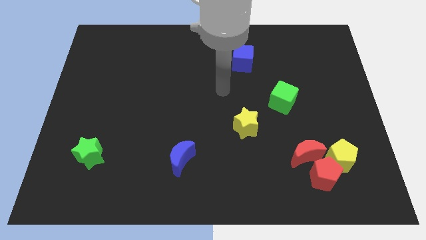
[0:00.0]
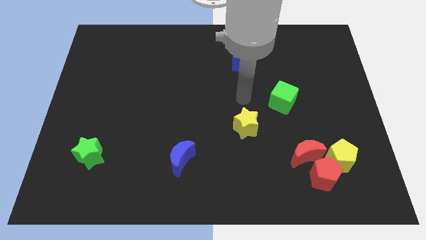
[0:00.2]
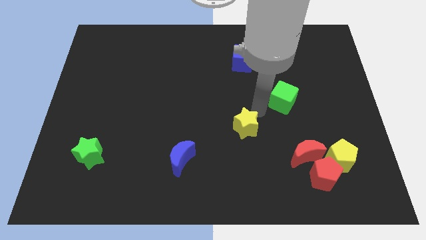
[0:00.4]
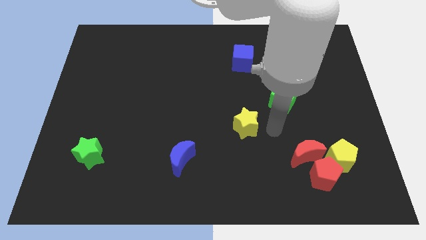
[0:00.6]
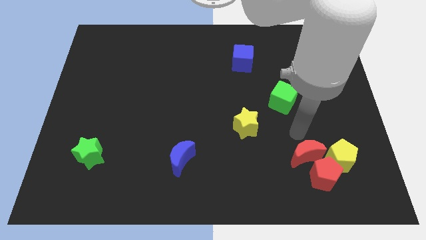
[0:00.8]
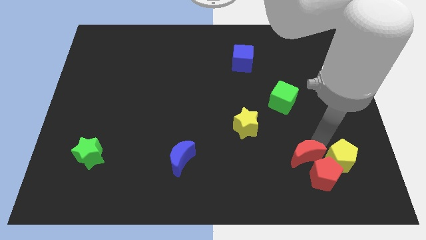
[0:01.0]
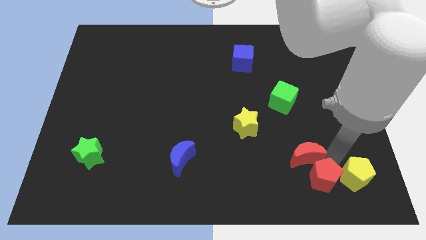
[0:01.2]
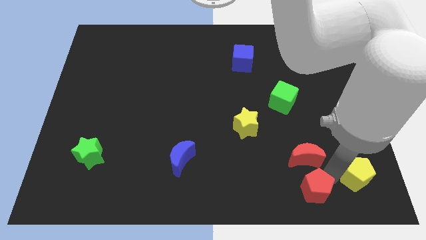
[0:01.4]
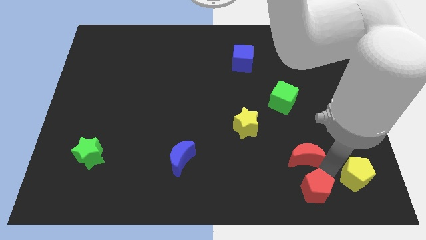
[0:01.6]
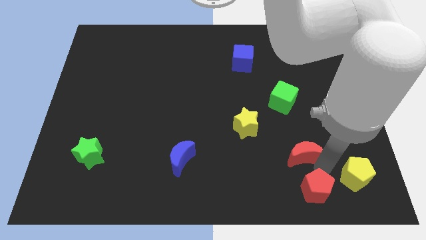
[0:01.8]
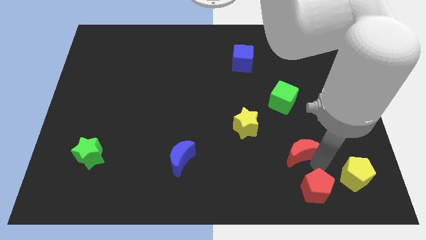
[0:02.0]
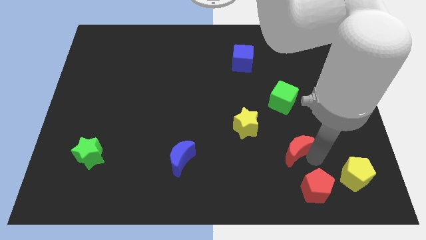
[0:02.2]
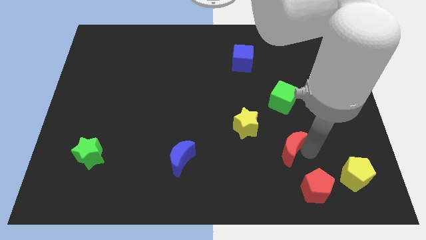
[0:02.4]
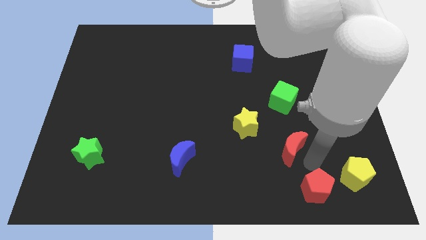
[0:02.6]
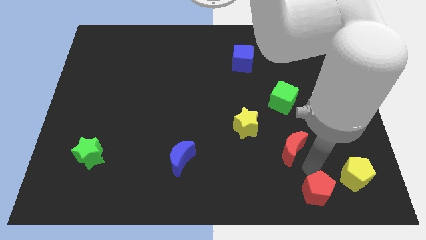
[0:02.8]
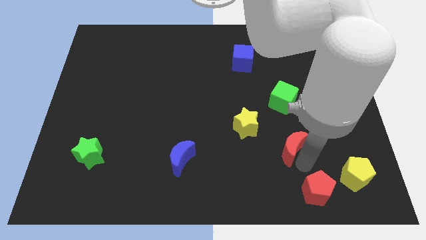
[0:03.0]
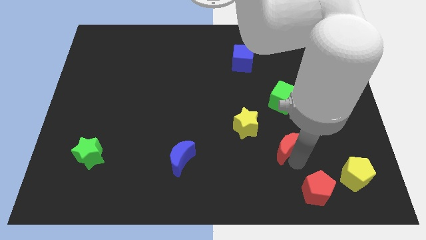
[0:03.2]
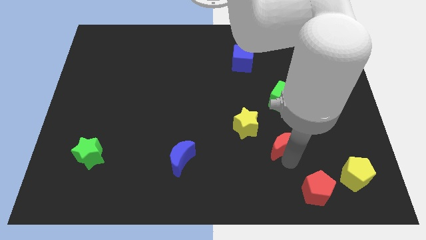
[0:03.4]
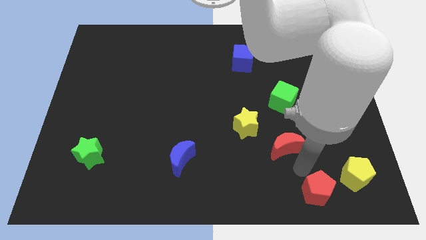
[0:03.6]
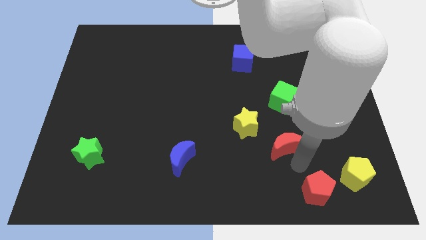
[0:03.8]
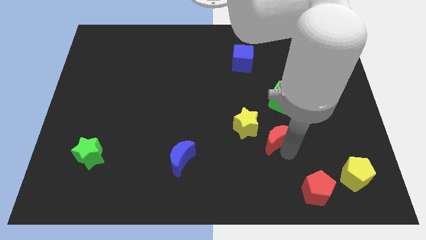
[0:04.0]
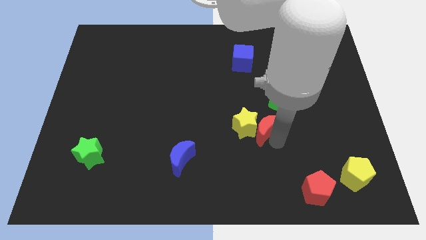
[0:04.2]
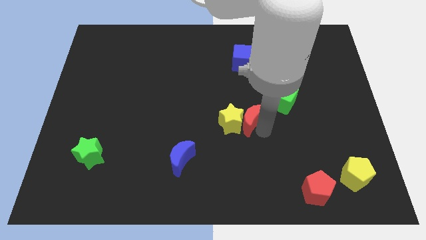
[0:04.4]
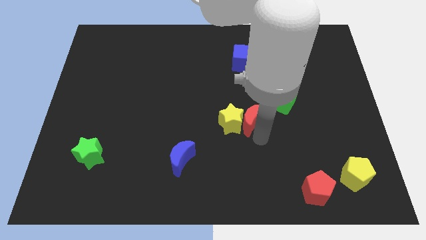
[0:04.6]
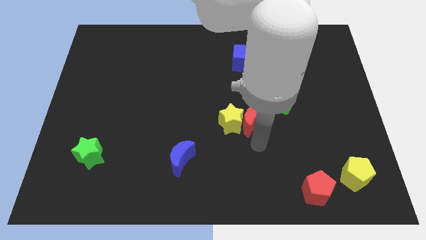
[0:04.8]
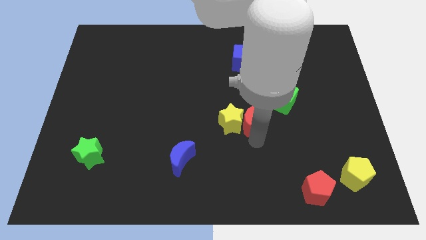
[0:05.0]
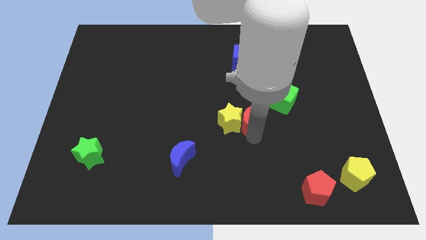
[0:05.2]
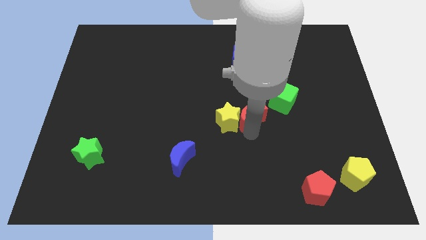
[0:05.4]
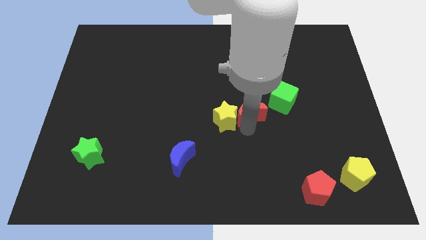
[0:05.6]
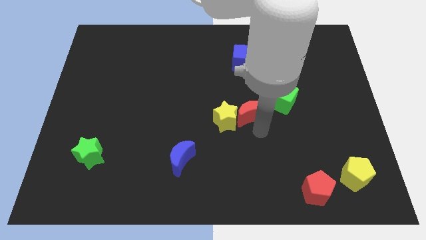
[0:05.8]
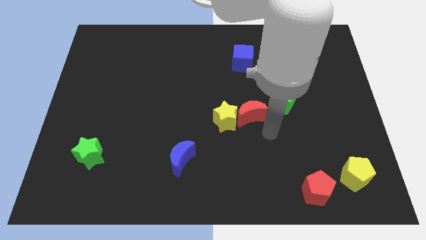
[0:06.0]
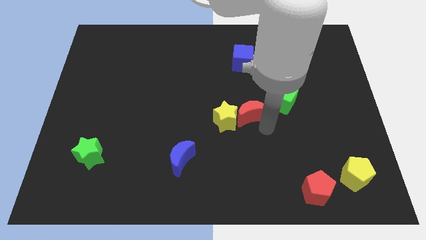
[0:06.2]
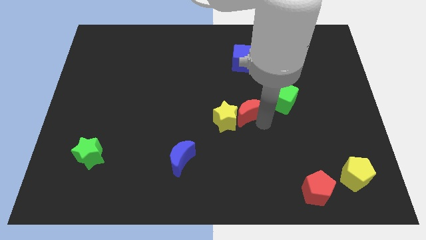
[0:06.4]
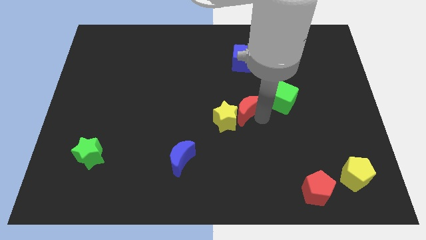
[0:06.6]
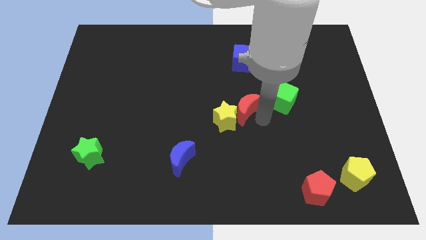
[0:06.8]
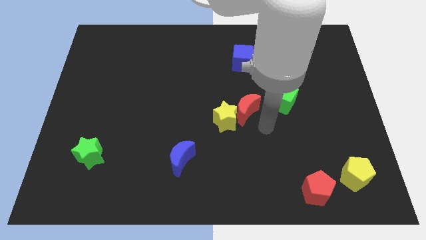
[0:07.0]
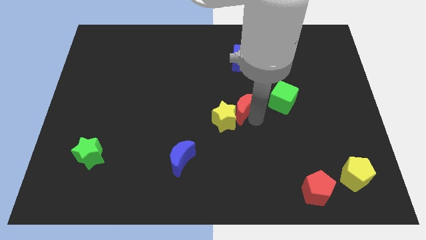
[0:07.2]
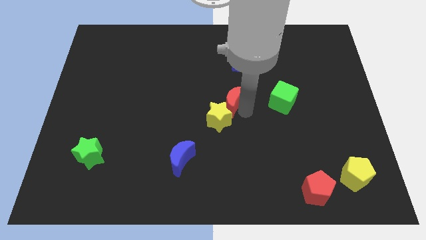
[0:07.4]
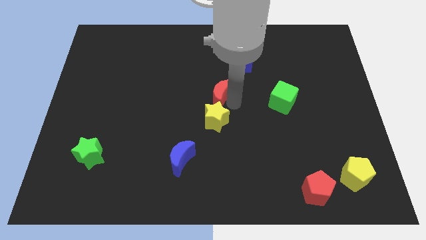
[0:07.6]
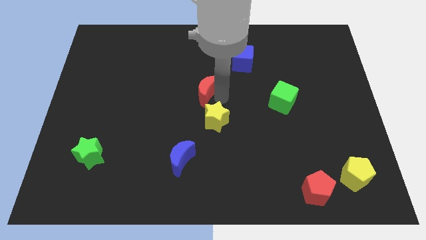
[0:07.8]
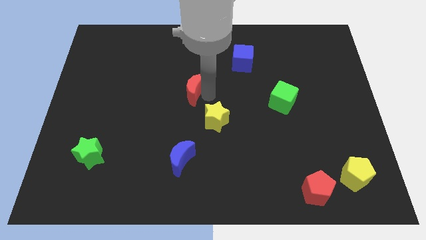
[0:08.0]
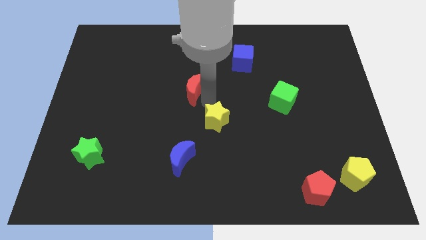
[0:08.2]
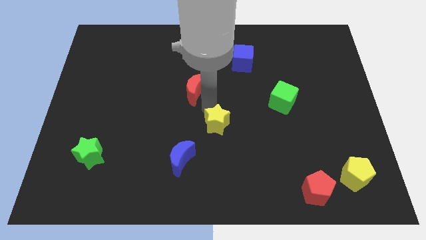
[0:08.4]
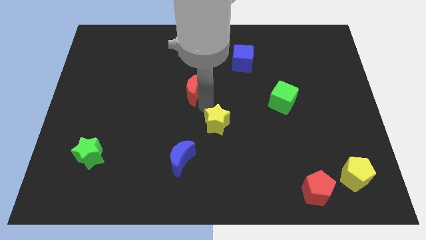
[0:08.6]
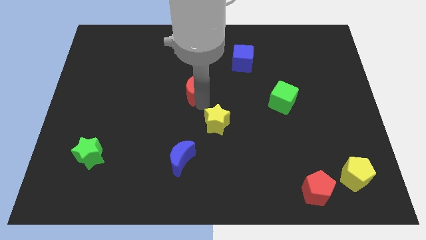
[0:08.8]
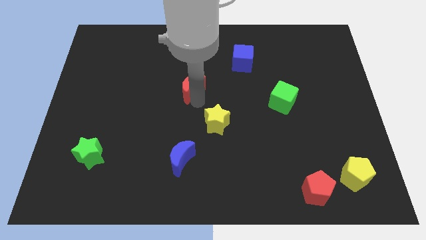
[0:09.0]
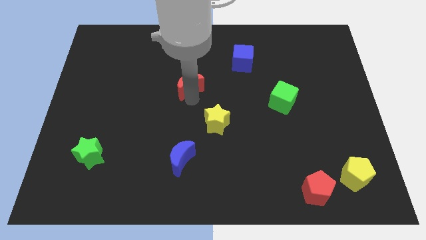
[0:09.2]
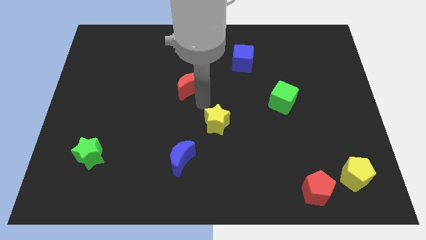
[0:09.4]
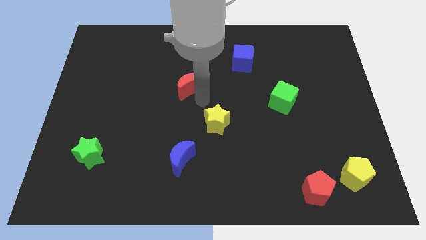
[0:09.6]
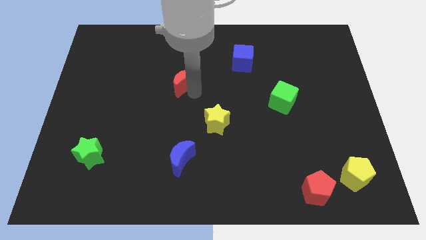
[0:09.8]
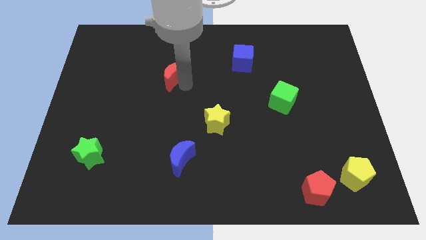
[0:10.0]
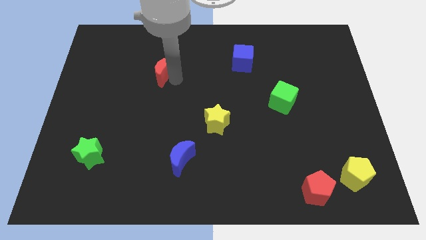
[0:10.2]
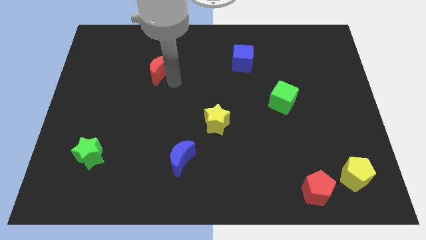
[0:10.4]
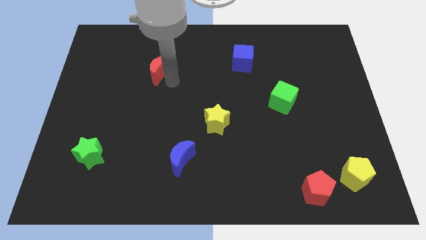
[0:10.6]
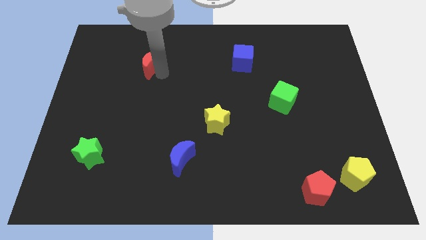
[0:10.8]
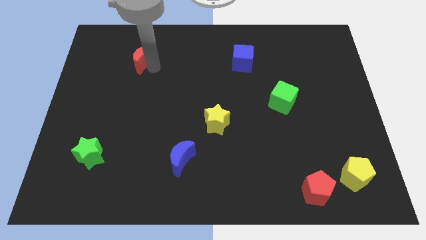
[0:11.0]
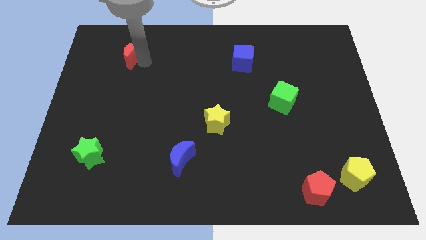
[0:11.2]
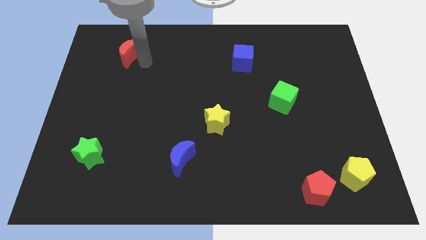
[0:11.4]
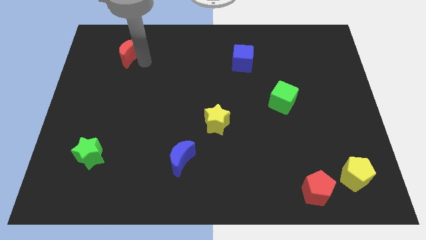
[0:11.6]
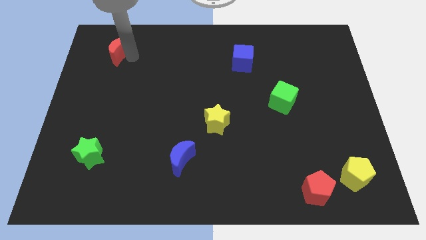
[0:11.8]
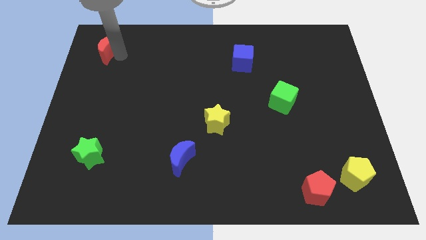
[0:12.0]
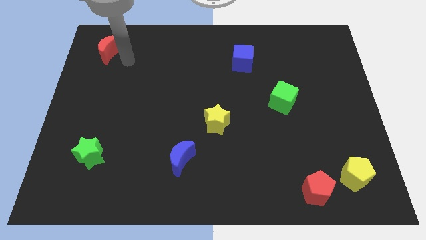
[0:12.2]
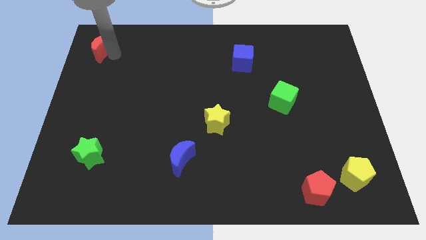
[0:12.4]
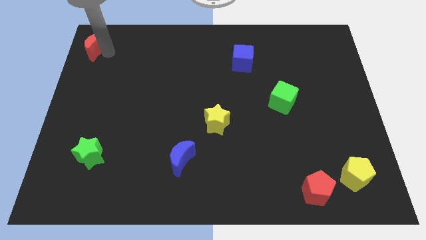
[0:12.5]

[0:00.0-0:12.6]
move the red moon to the upper left corner
